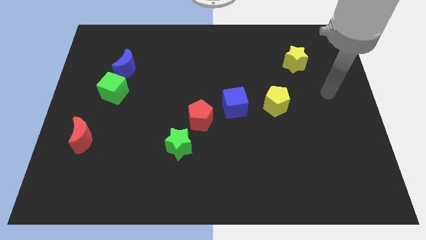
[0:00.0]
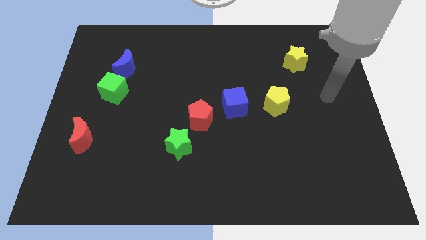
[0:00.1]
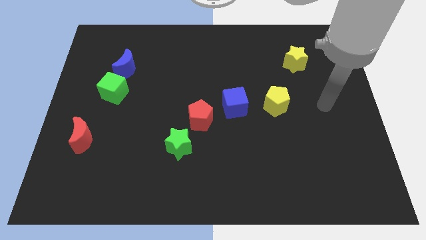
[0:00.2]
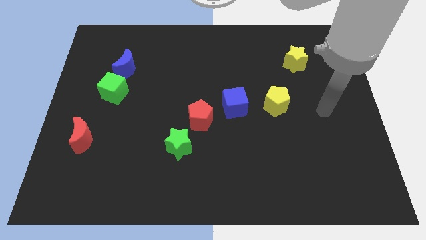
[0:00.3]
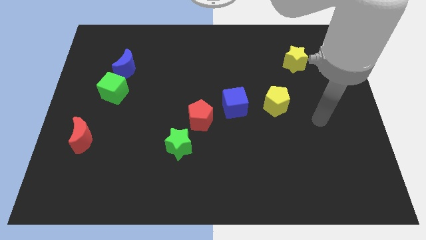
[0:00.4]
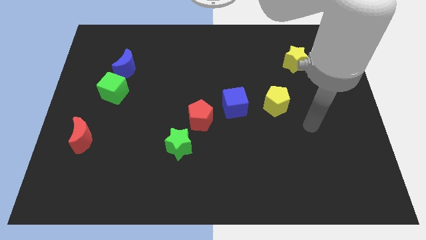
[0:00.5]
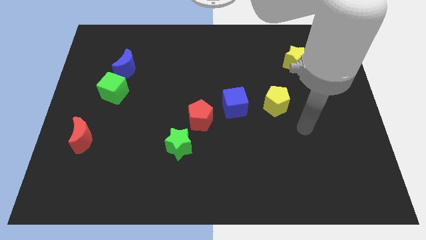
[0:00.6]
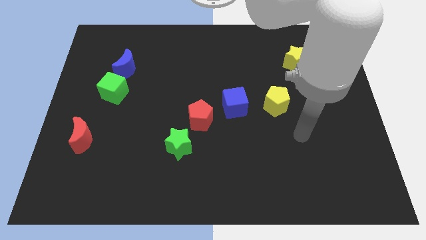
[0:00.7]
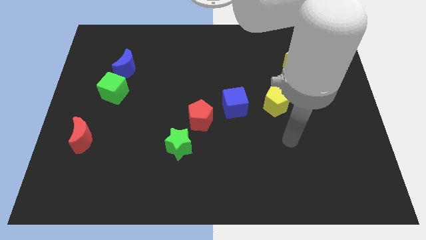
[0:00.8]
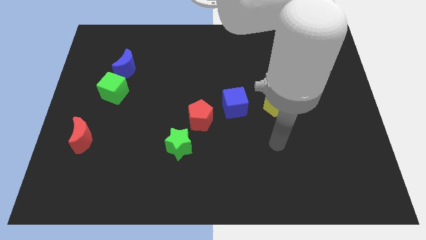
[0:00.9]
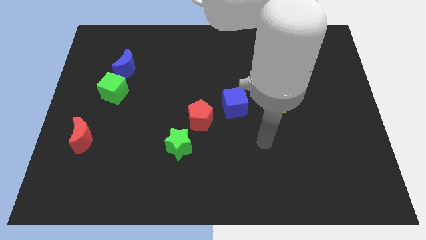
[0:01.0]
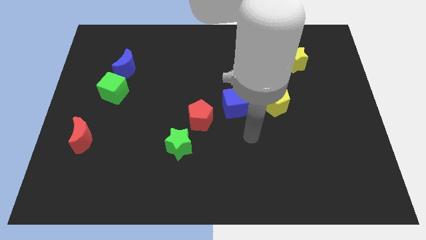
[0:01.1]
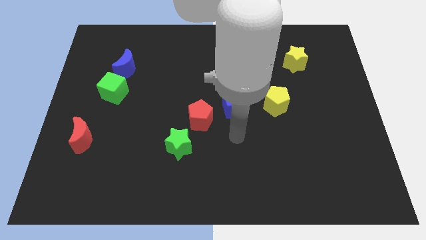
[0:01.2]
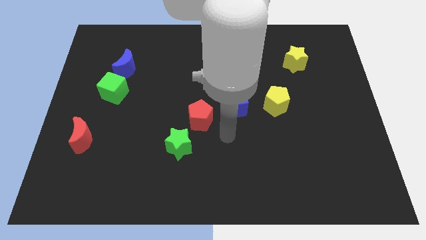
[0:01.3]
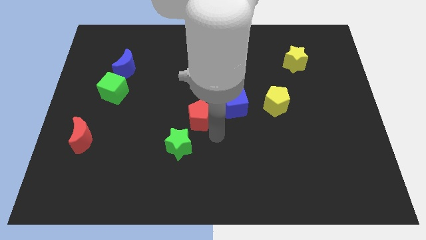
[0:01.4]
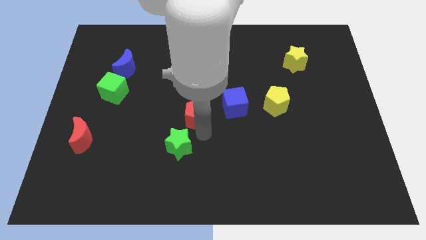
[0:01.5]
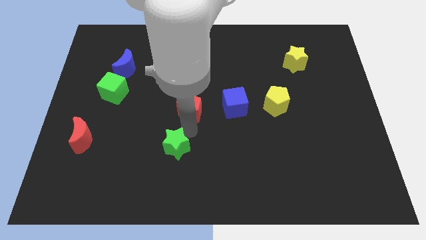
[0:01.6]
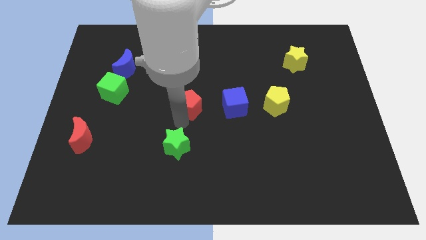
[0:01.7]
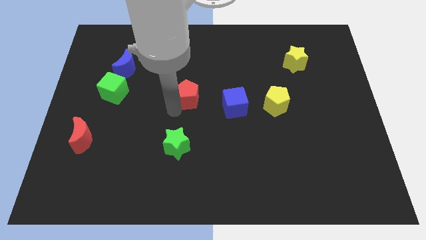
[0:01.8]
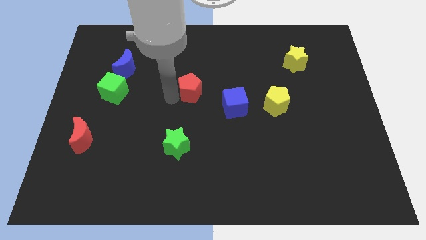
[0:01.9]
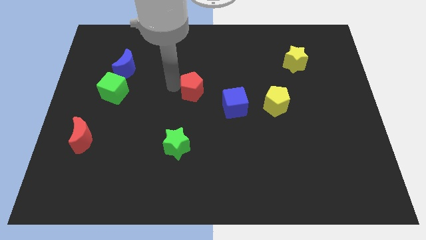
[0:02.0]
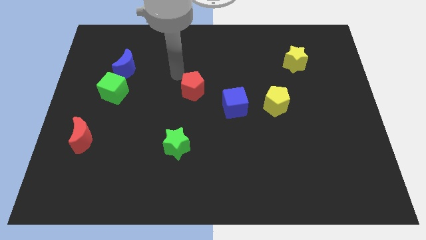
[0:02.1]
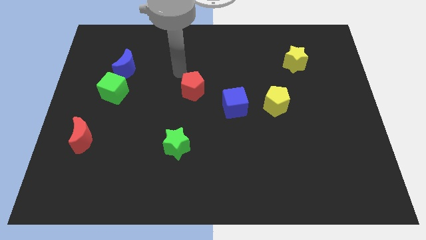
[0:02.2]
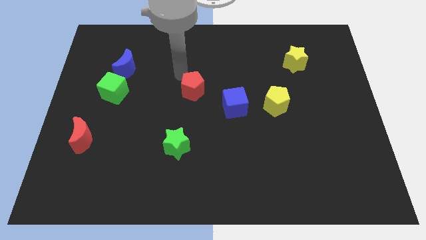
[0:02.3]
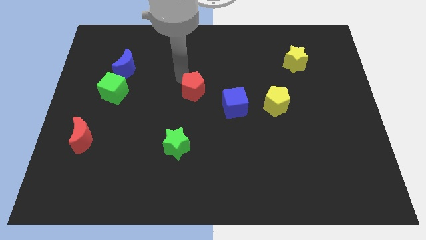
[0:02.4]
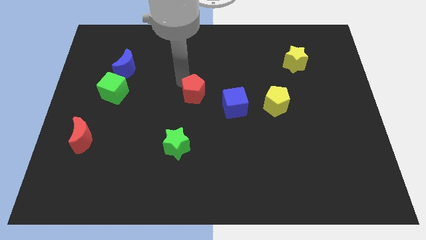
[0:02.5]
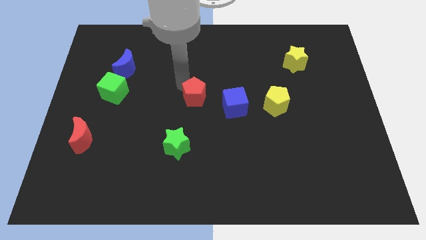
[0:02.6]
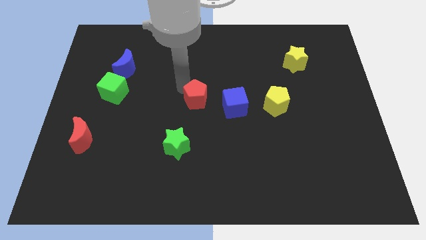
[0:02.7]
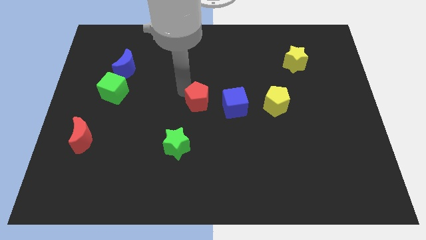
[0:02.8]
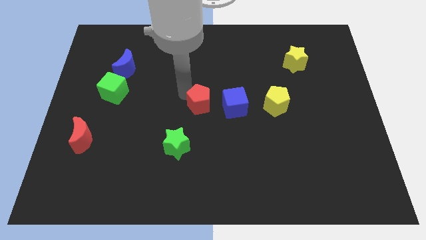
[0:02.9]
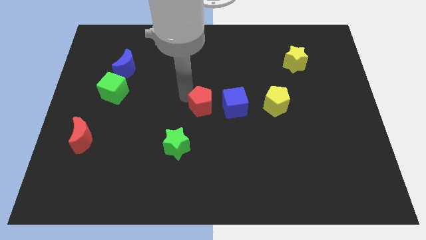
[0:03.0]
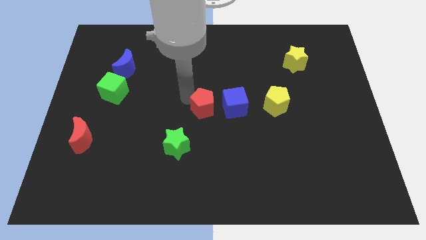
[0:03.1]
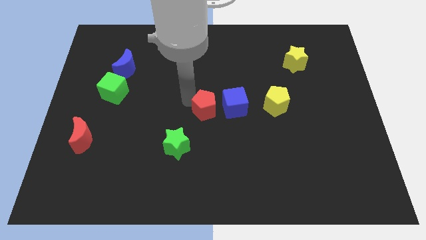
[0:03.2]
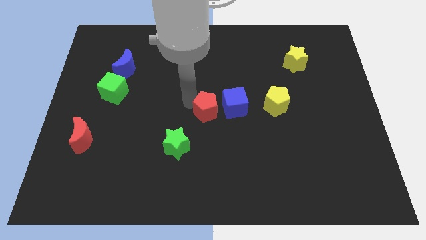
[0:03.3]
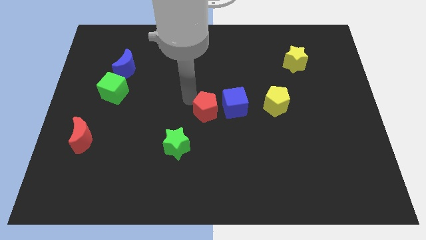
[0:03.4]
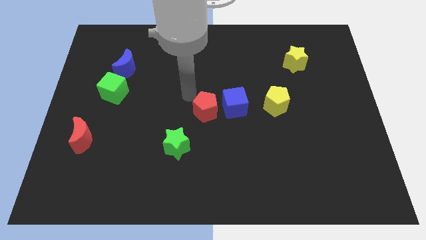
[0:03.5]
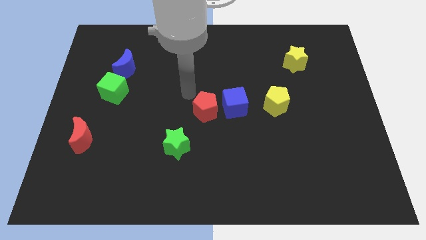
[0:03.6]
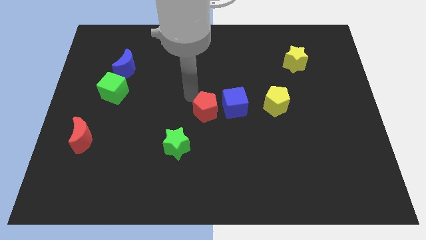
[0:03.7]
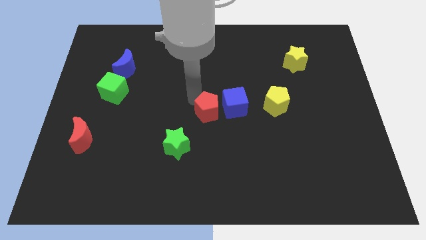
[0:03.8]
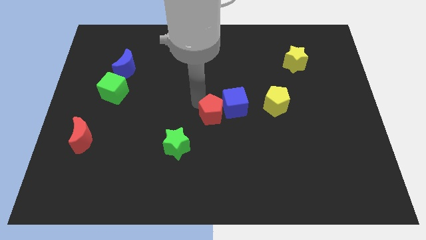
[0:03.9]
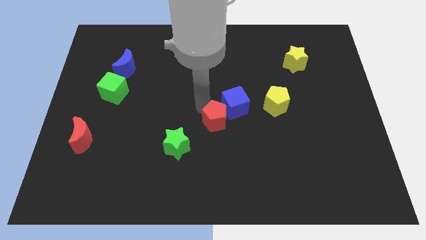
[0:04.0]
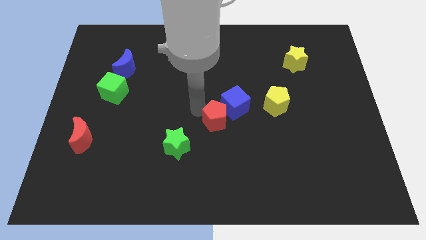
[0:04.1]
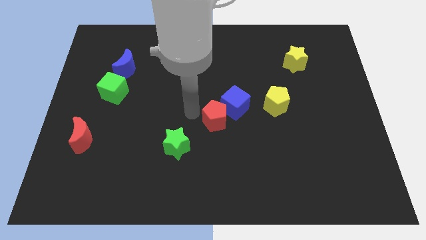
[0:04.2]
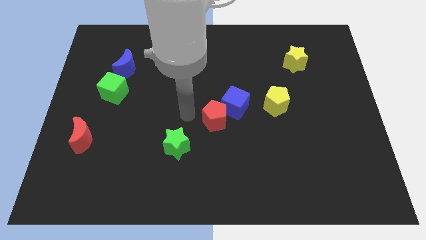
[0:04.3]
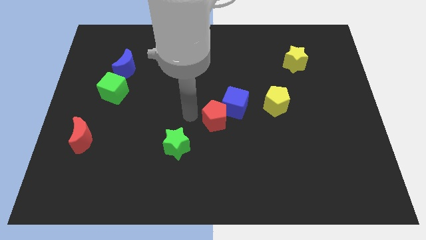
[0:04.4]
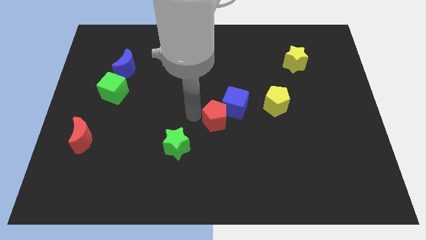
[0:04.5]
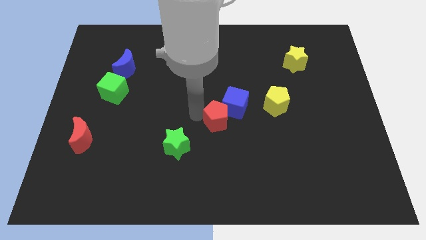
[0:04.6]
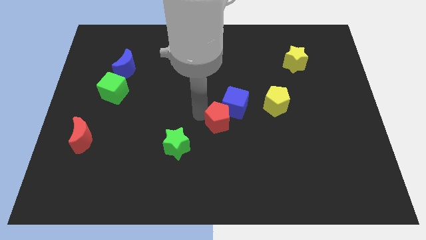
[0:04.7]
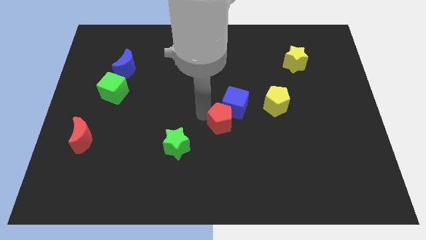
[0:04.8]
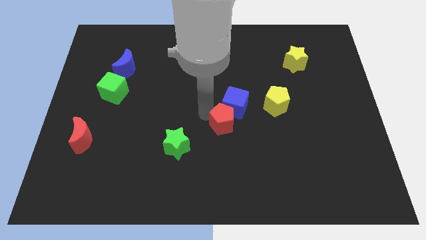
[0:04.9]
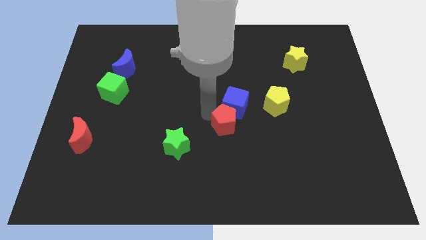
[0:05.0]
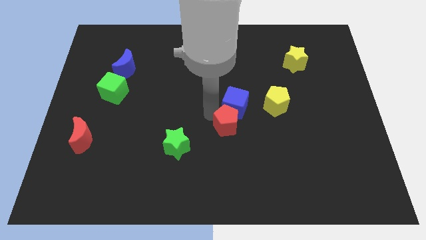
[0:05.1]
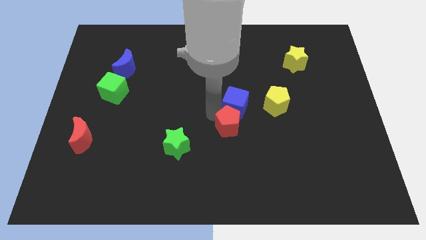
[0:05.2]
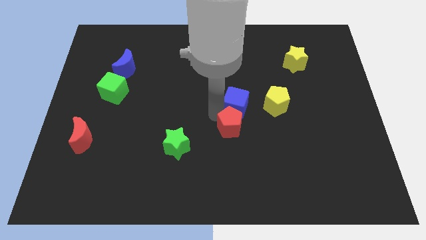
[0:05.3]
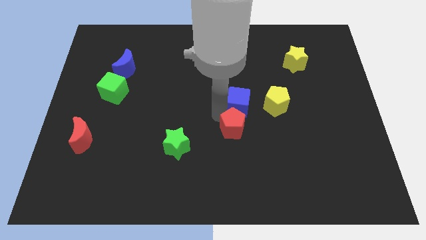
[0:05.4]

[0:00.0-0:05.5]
push the red pentagon slightly to the right

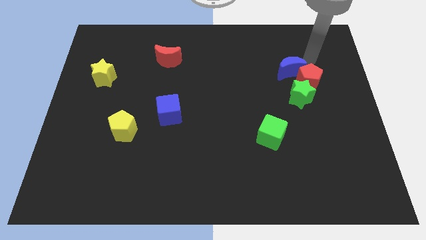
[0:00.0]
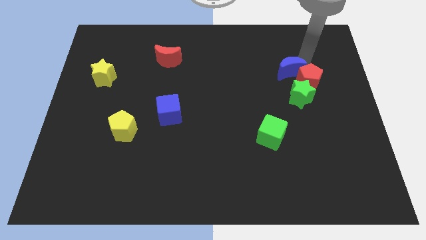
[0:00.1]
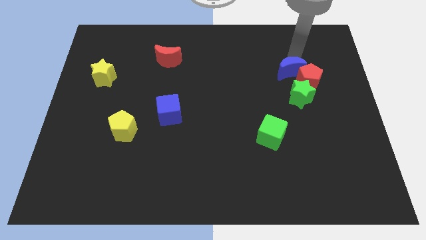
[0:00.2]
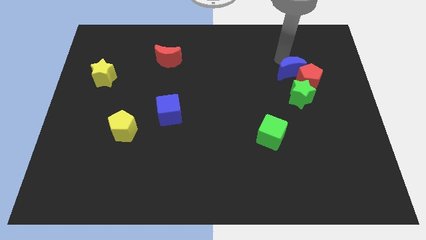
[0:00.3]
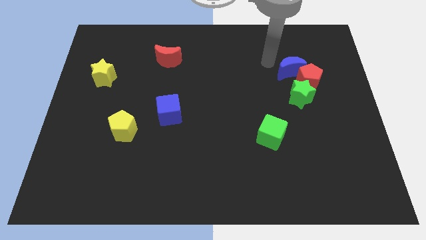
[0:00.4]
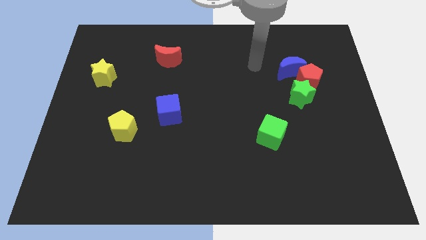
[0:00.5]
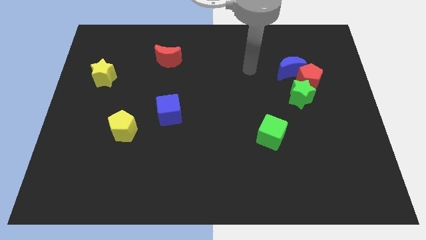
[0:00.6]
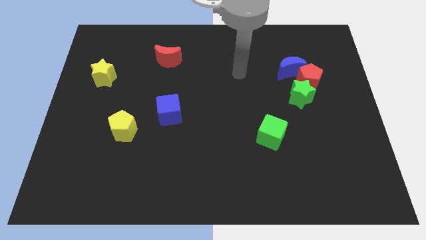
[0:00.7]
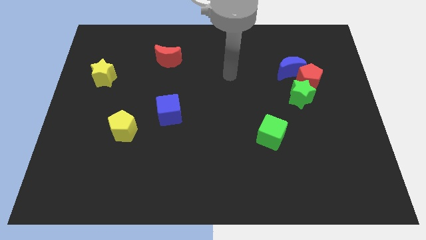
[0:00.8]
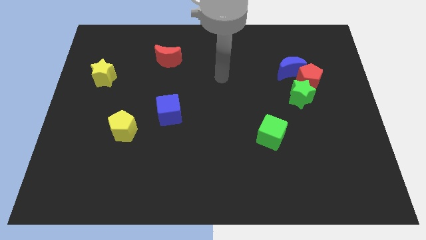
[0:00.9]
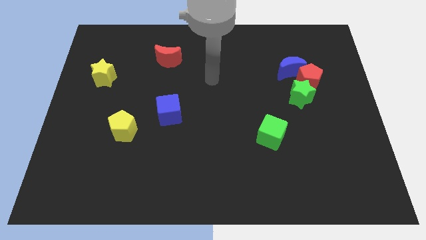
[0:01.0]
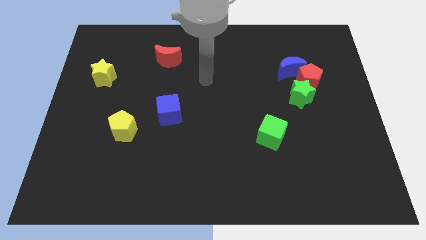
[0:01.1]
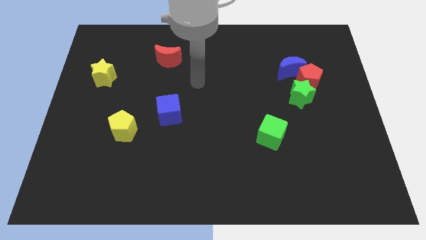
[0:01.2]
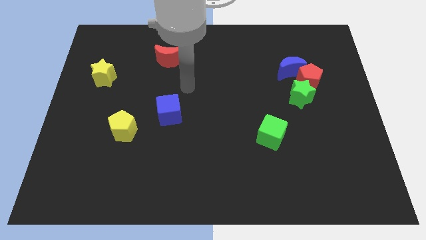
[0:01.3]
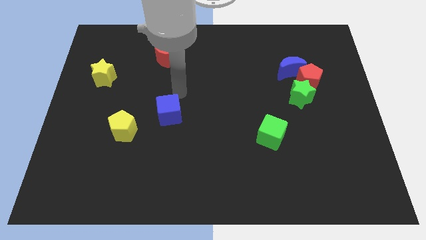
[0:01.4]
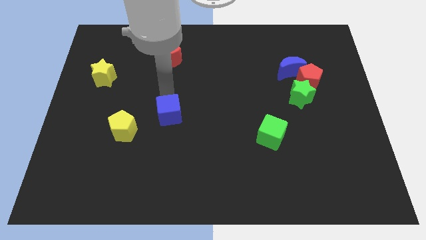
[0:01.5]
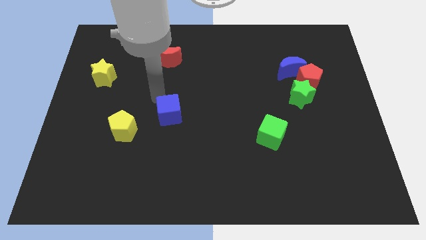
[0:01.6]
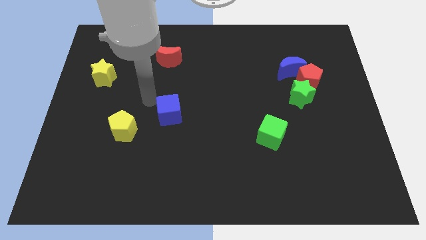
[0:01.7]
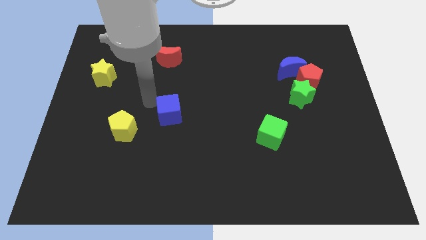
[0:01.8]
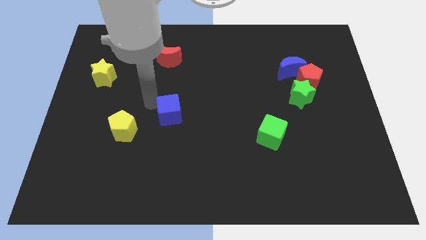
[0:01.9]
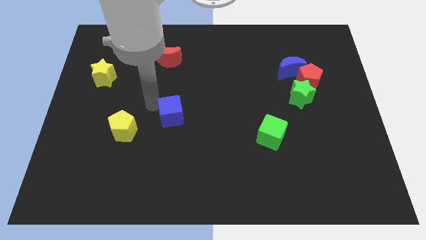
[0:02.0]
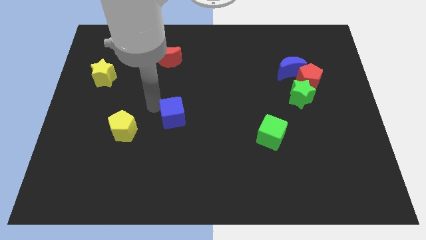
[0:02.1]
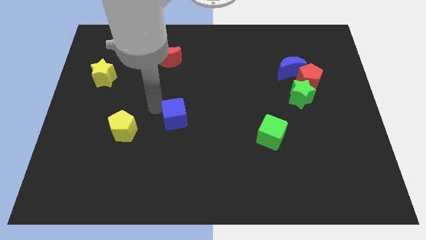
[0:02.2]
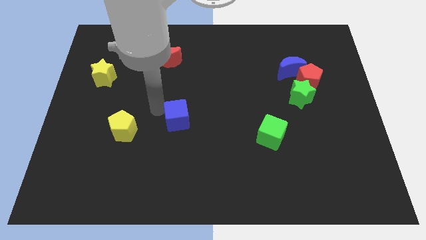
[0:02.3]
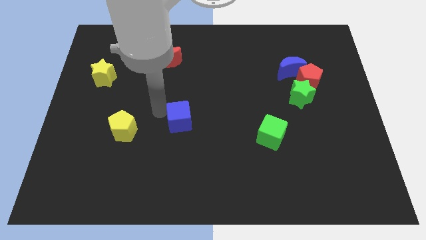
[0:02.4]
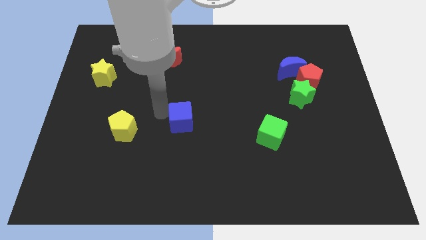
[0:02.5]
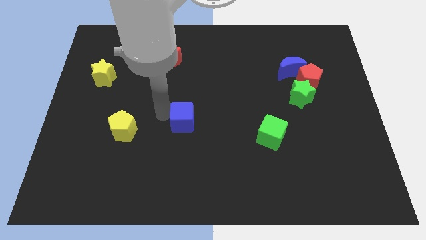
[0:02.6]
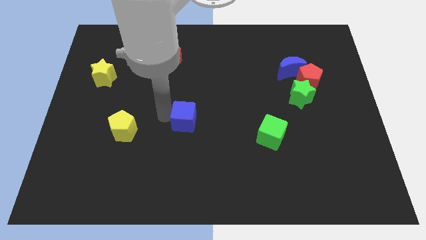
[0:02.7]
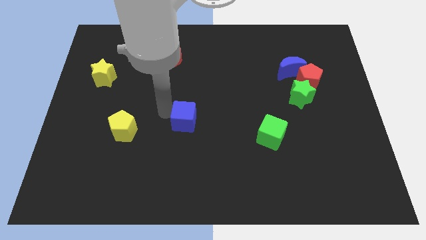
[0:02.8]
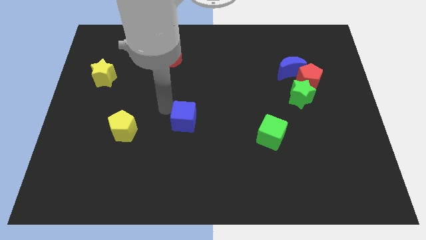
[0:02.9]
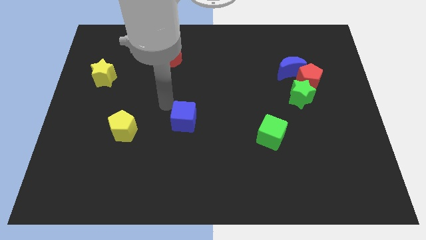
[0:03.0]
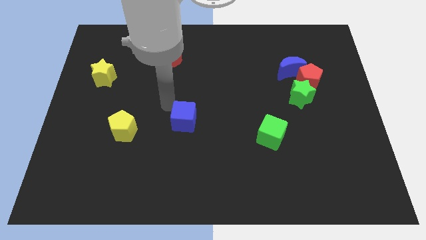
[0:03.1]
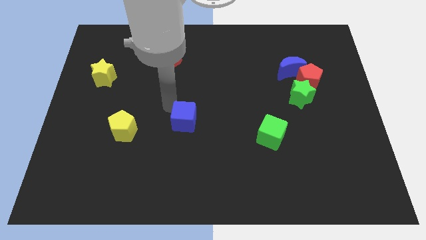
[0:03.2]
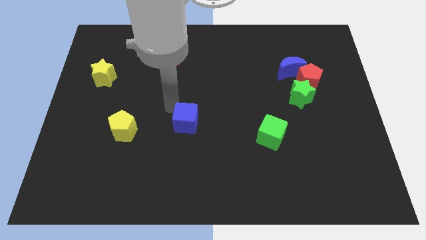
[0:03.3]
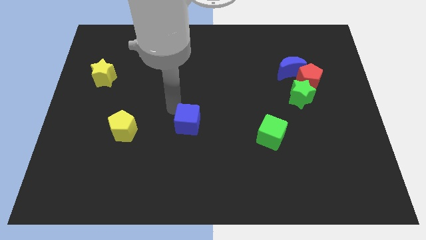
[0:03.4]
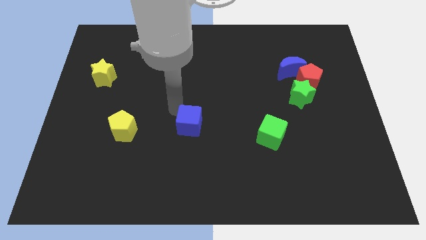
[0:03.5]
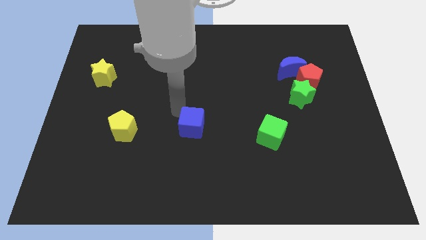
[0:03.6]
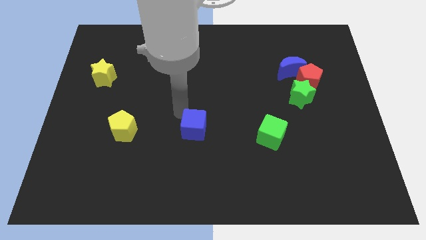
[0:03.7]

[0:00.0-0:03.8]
move the blue cube a little bit downwards and right
